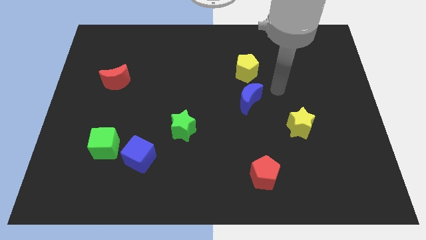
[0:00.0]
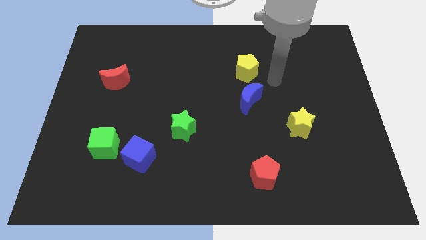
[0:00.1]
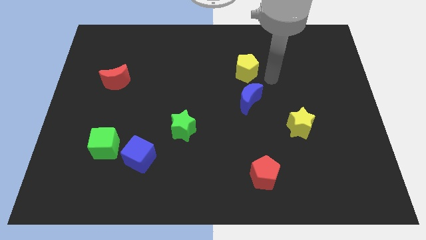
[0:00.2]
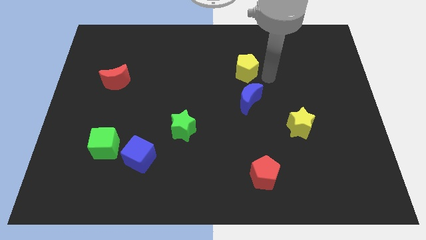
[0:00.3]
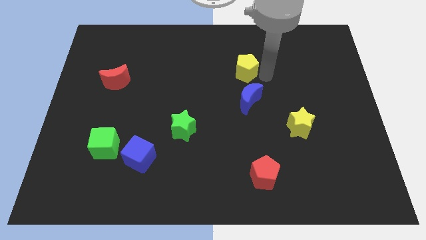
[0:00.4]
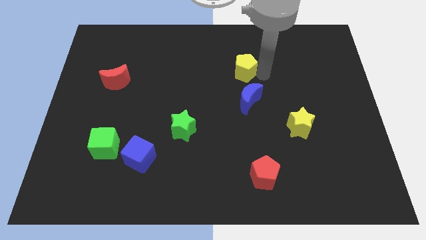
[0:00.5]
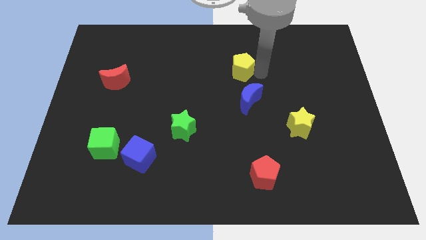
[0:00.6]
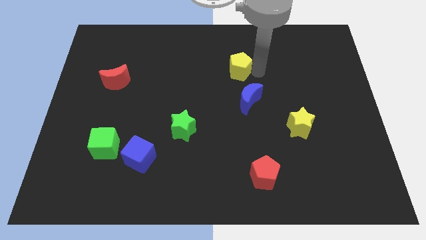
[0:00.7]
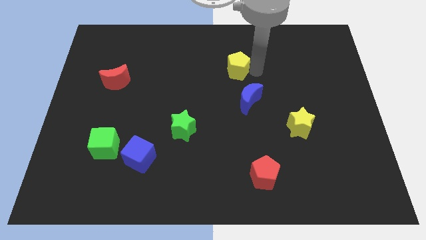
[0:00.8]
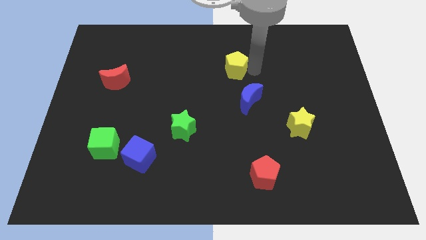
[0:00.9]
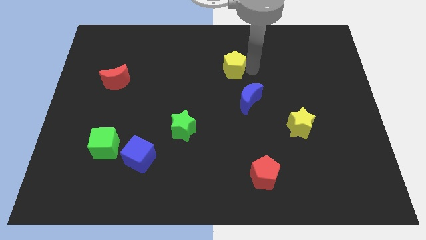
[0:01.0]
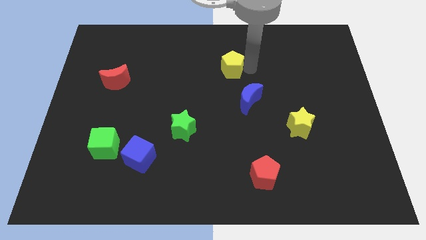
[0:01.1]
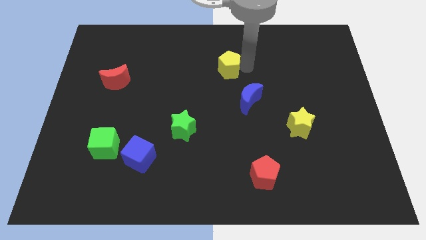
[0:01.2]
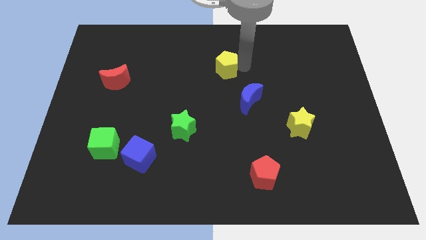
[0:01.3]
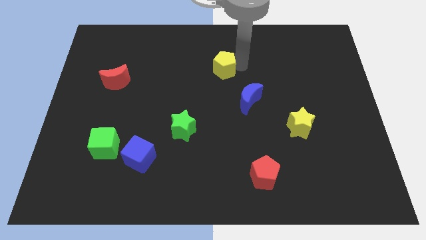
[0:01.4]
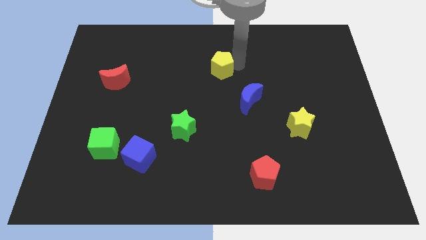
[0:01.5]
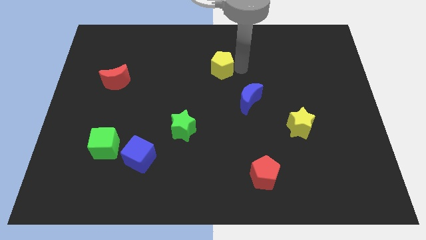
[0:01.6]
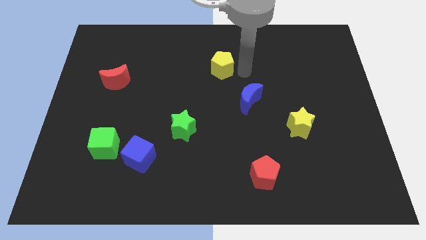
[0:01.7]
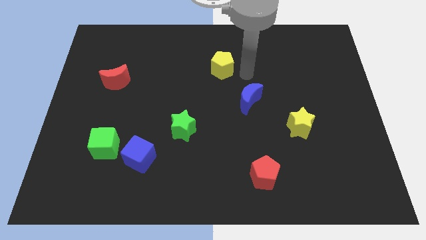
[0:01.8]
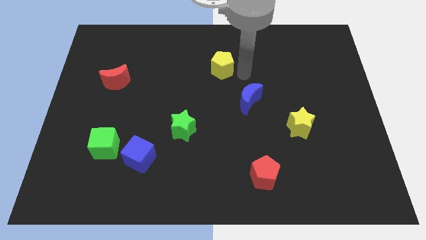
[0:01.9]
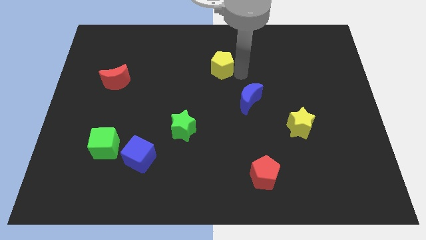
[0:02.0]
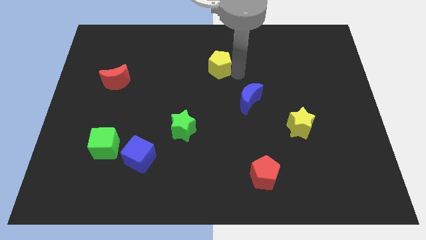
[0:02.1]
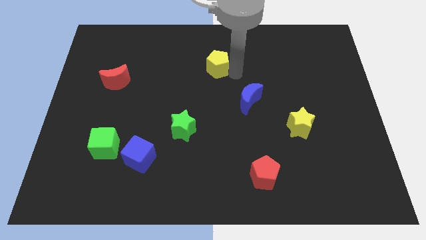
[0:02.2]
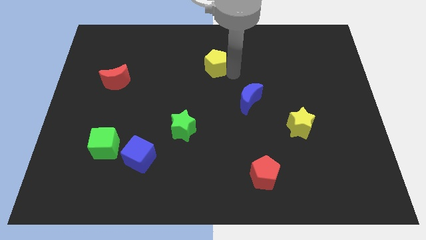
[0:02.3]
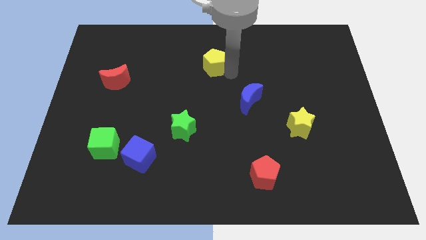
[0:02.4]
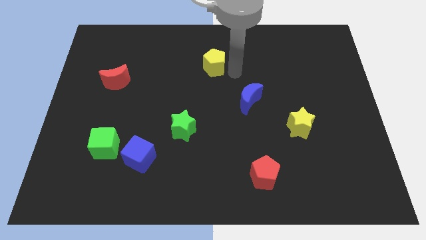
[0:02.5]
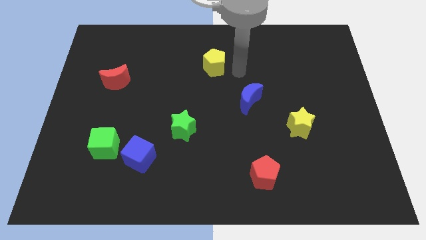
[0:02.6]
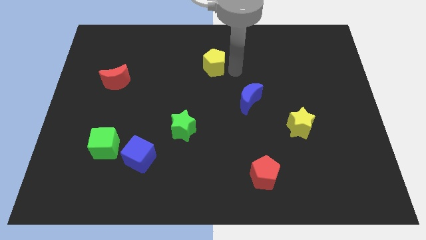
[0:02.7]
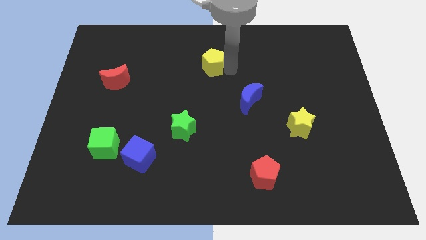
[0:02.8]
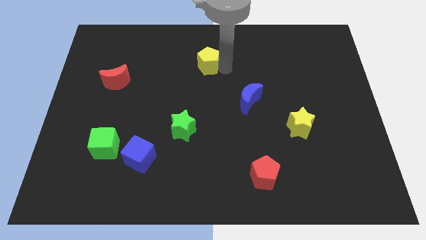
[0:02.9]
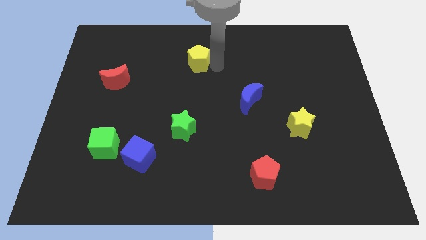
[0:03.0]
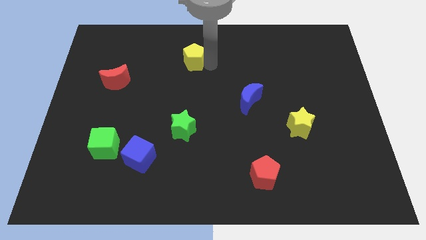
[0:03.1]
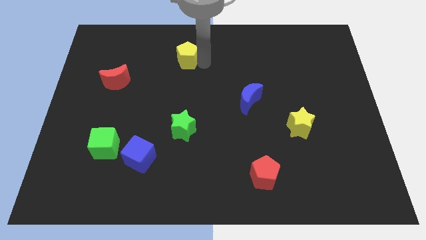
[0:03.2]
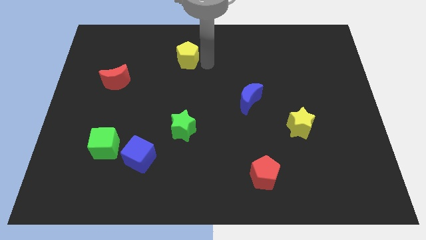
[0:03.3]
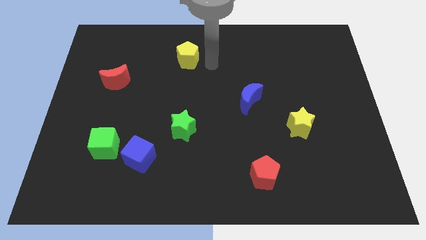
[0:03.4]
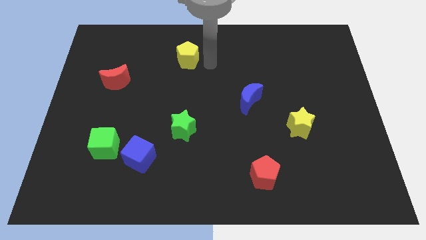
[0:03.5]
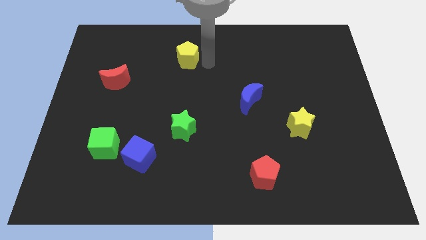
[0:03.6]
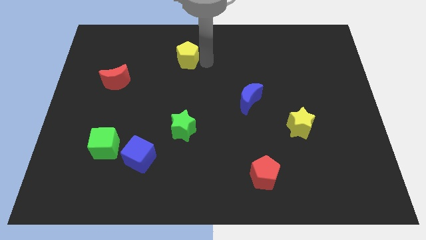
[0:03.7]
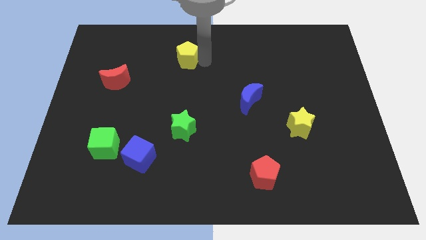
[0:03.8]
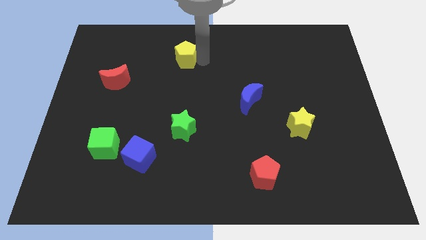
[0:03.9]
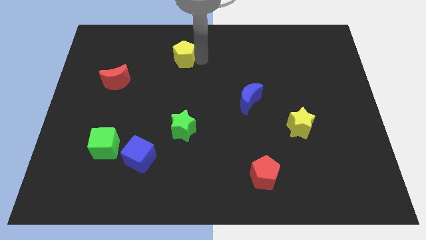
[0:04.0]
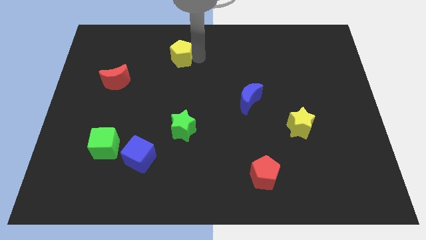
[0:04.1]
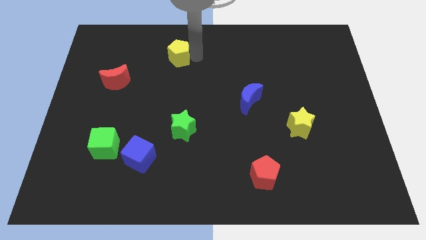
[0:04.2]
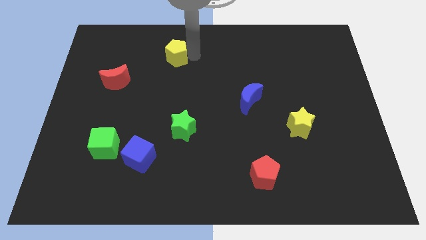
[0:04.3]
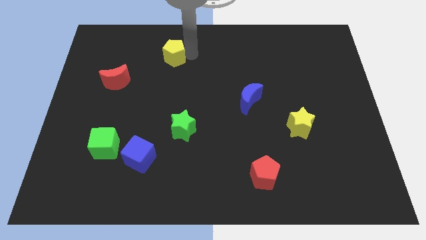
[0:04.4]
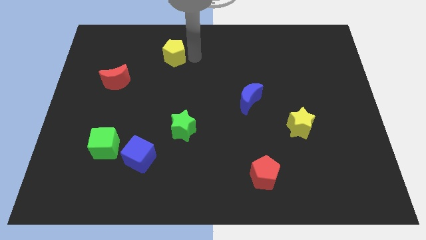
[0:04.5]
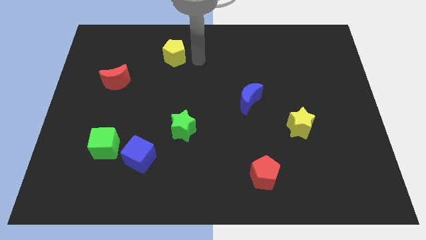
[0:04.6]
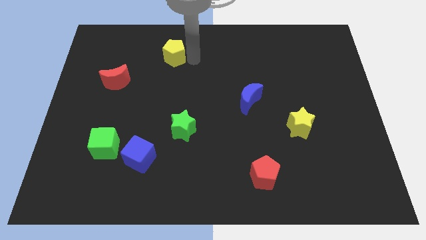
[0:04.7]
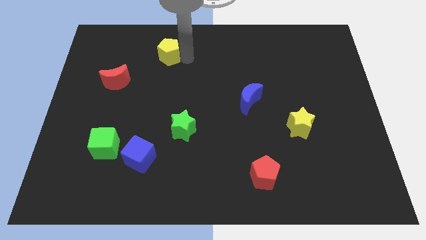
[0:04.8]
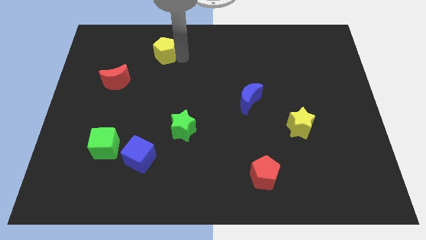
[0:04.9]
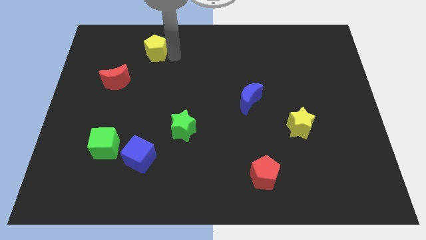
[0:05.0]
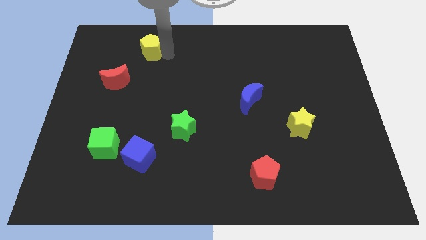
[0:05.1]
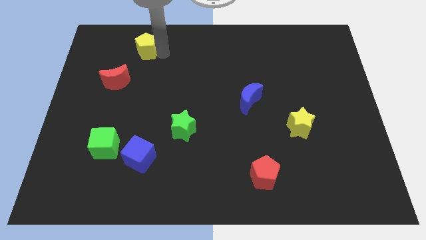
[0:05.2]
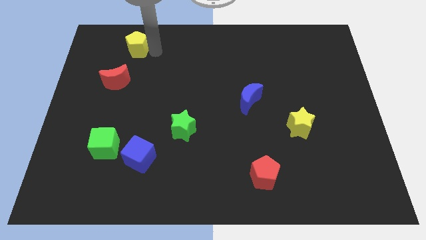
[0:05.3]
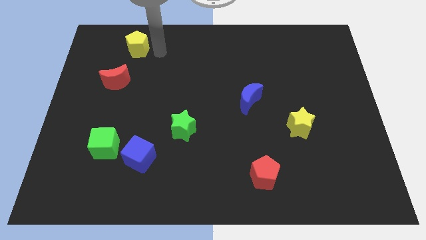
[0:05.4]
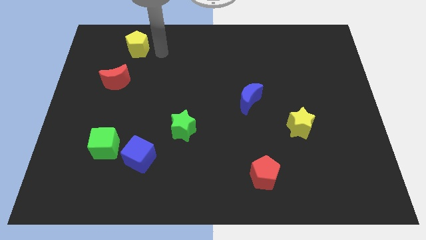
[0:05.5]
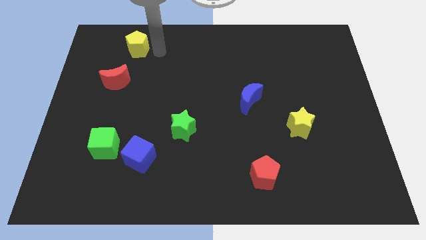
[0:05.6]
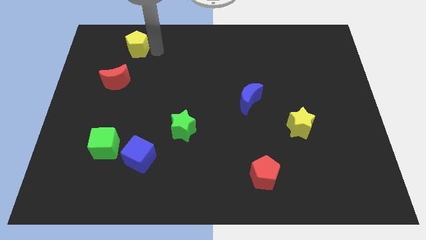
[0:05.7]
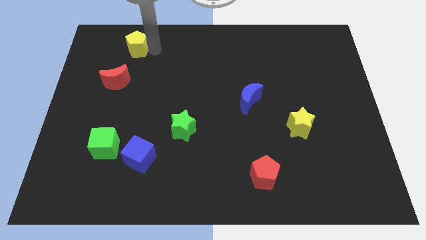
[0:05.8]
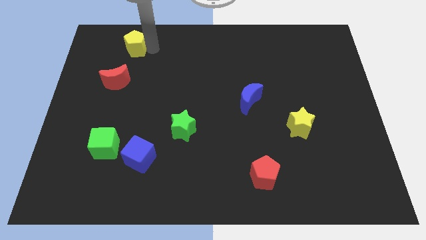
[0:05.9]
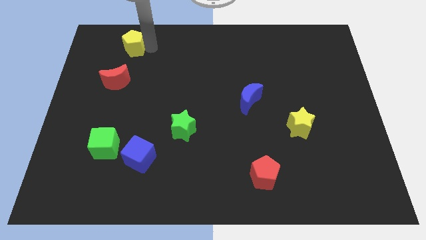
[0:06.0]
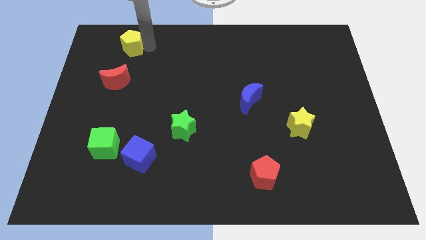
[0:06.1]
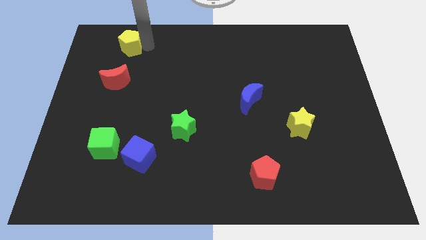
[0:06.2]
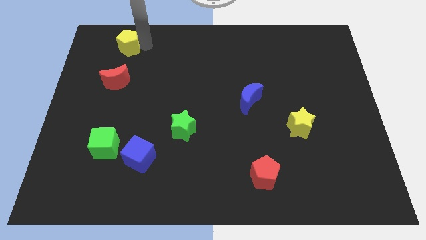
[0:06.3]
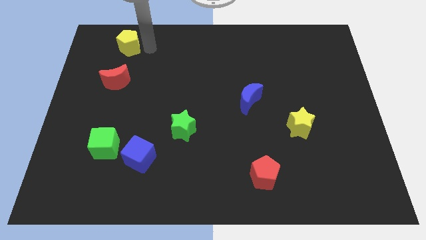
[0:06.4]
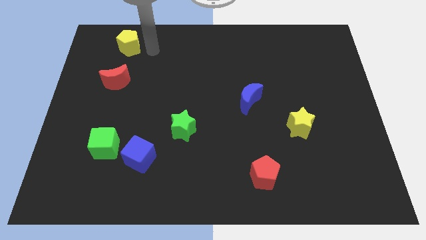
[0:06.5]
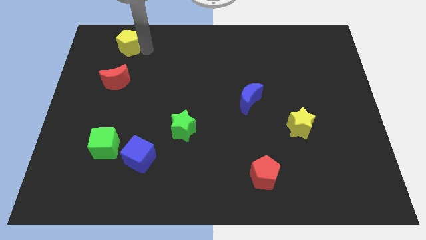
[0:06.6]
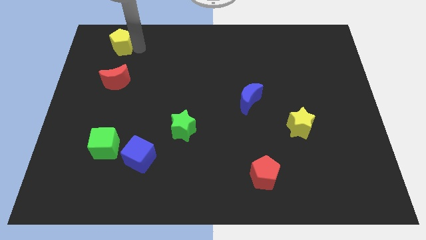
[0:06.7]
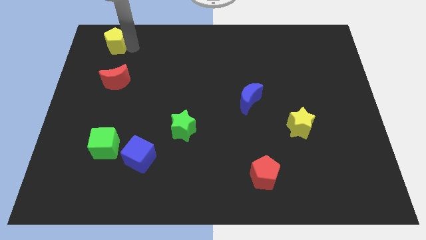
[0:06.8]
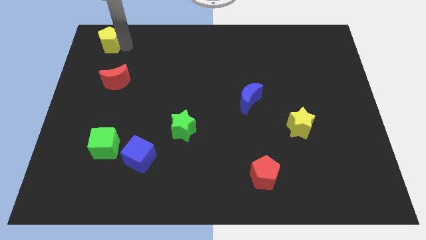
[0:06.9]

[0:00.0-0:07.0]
move the yellow pentagon to the top left corner

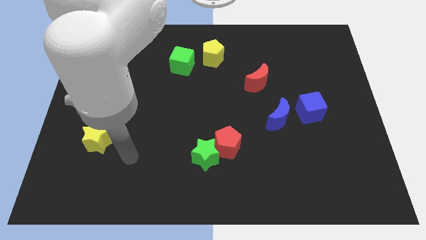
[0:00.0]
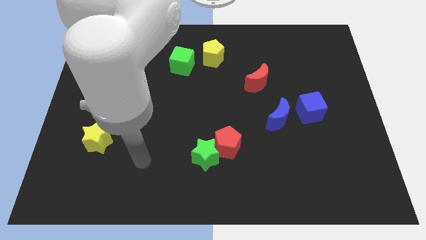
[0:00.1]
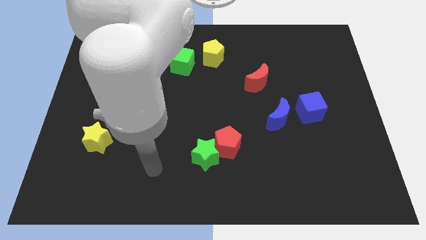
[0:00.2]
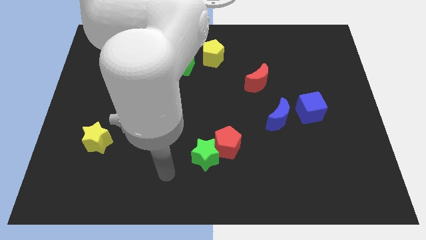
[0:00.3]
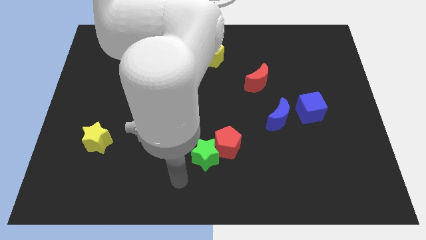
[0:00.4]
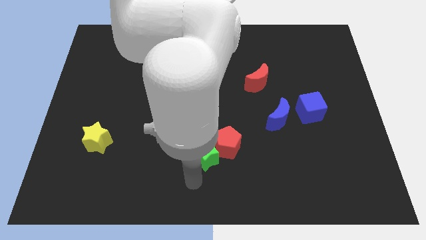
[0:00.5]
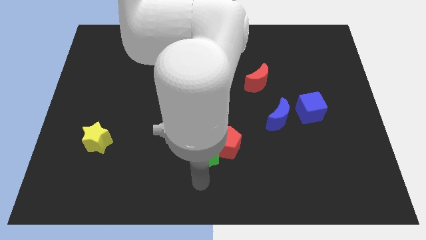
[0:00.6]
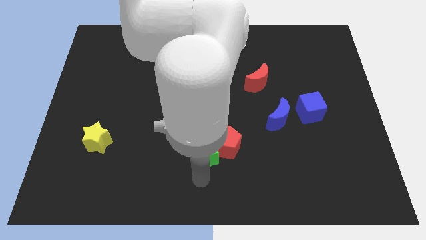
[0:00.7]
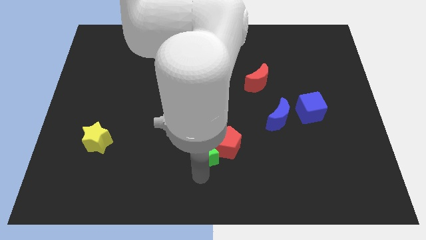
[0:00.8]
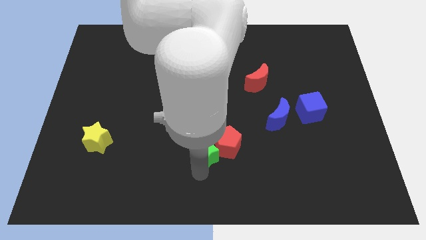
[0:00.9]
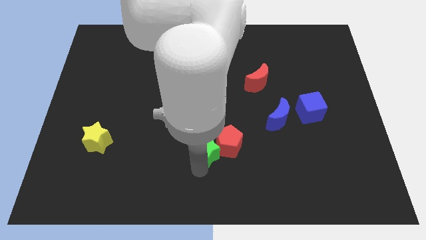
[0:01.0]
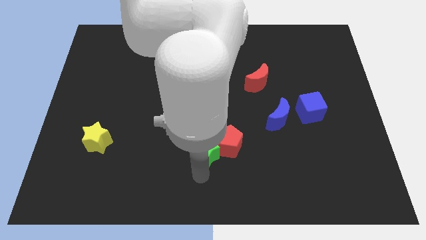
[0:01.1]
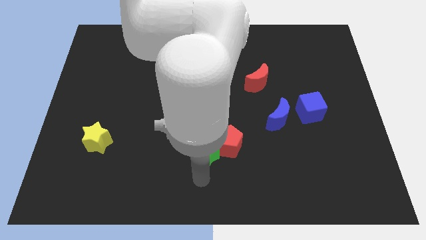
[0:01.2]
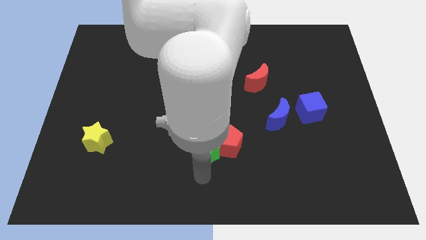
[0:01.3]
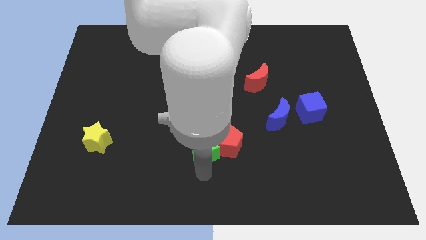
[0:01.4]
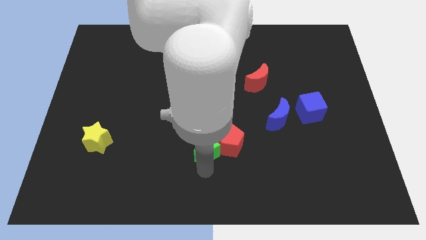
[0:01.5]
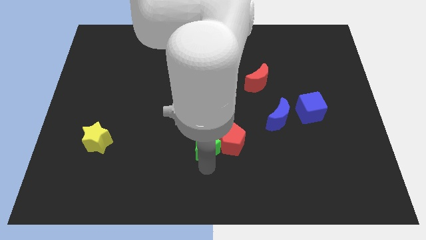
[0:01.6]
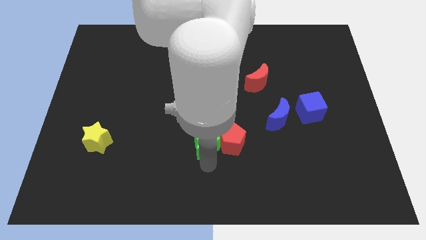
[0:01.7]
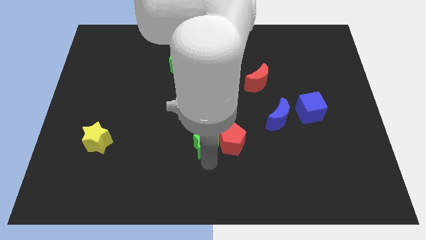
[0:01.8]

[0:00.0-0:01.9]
slide the green star to the center
